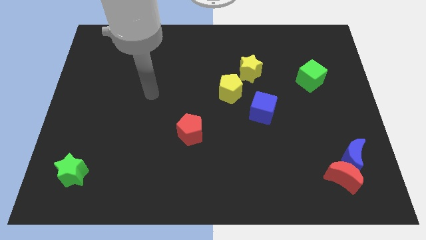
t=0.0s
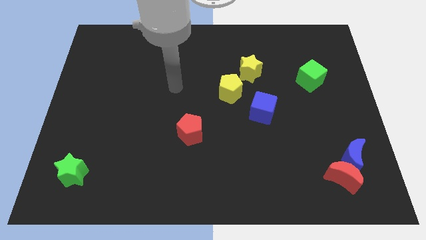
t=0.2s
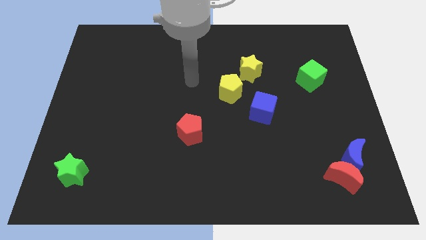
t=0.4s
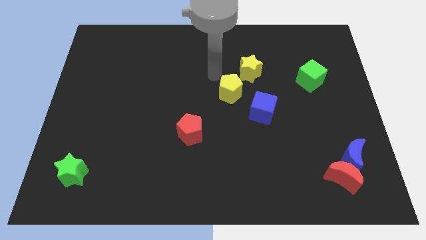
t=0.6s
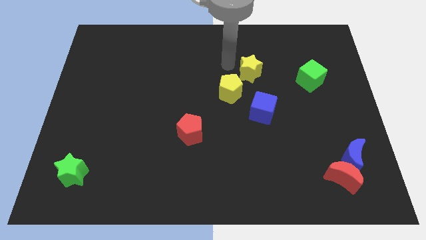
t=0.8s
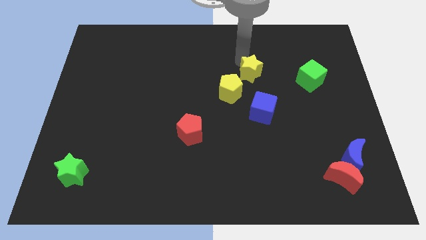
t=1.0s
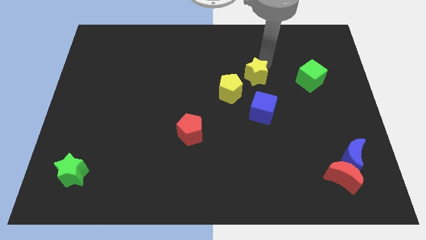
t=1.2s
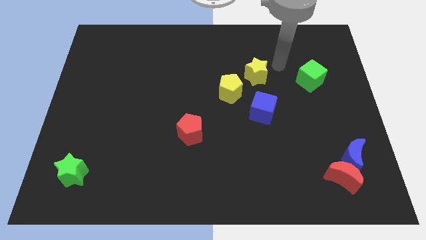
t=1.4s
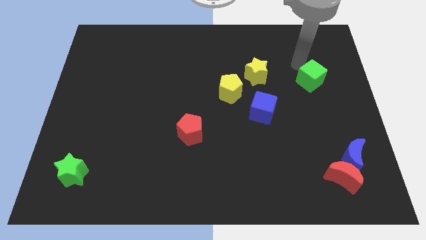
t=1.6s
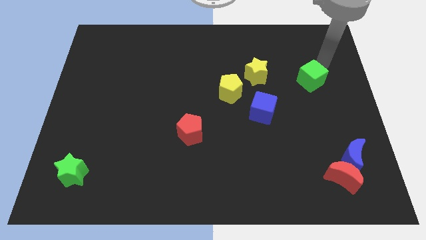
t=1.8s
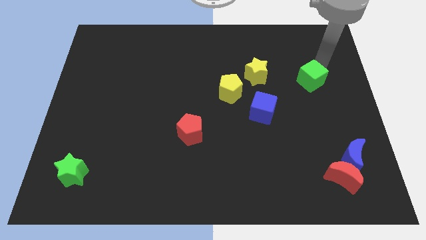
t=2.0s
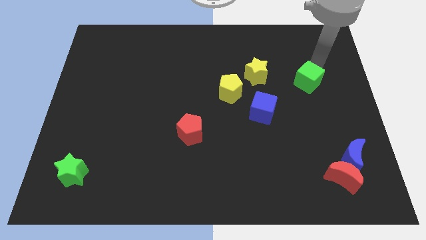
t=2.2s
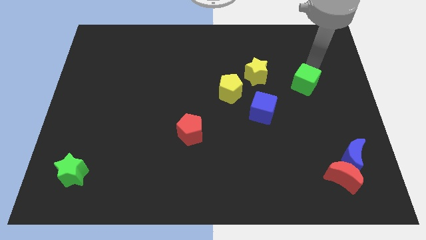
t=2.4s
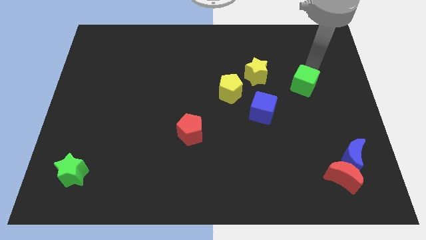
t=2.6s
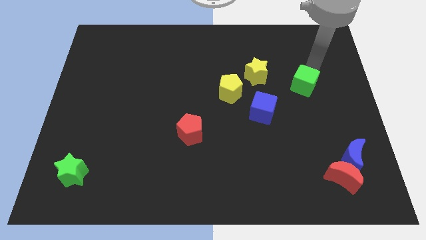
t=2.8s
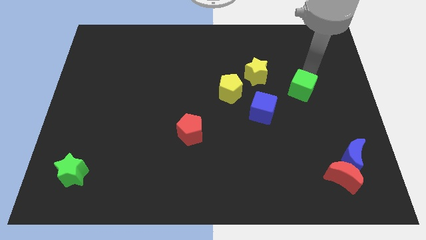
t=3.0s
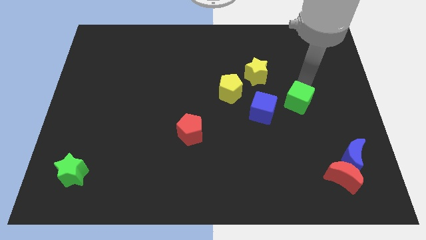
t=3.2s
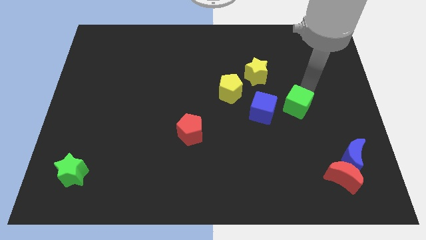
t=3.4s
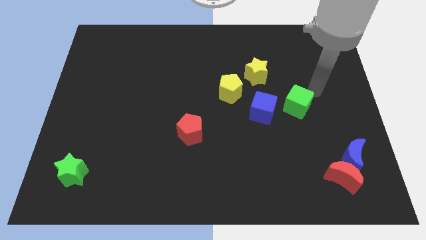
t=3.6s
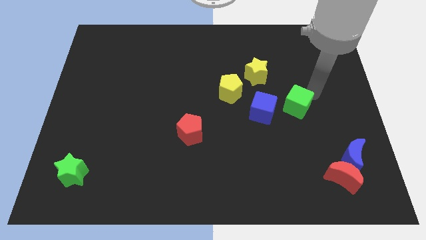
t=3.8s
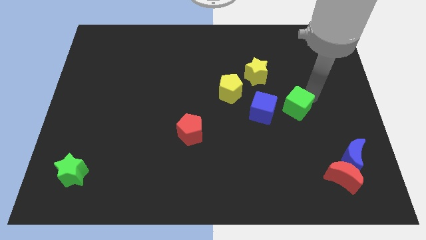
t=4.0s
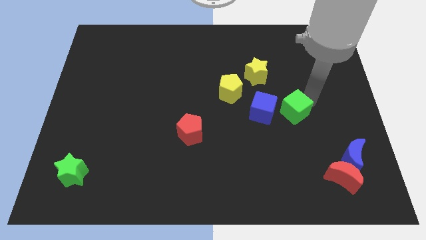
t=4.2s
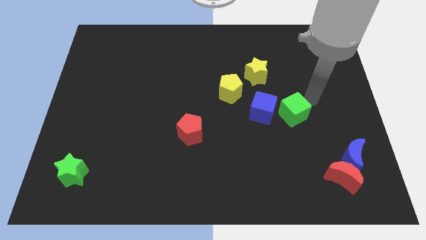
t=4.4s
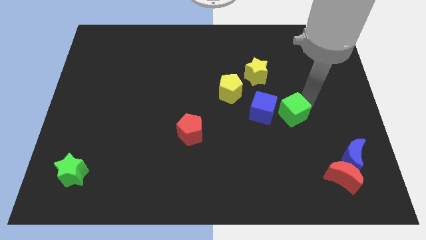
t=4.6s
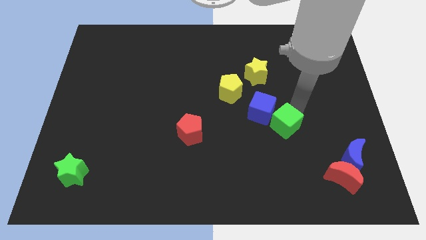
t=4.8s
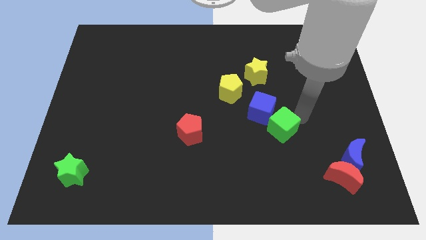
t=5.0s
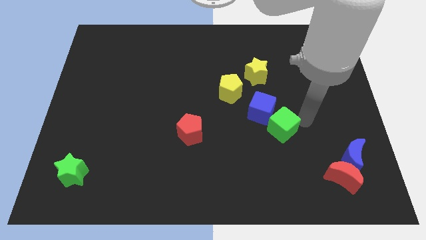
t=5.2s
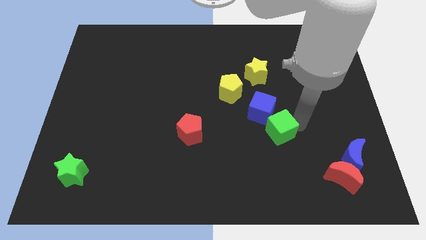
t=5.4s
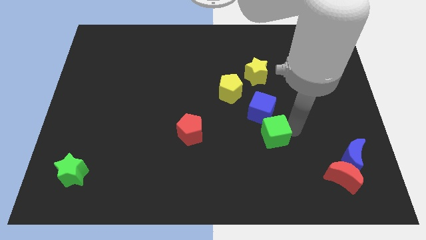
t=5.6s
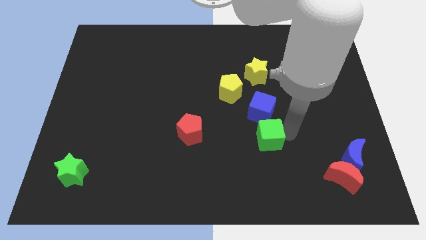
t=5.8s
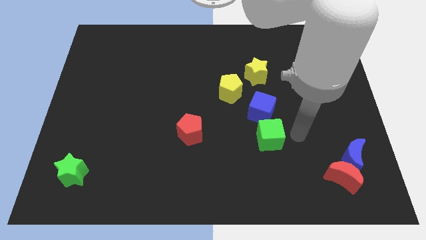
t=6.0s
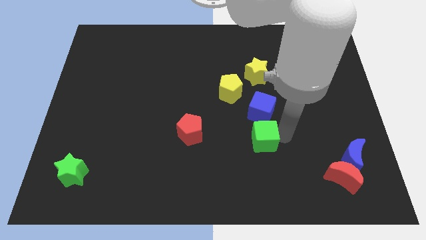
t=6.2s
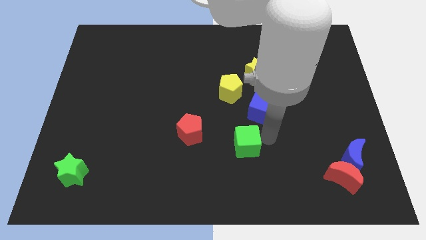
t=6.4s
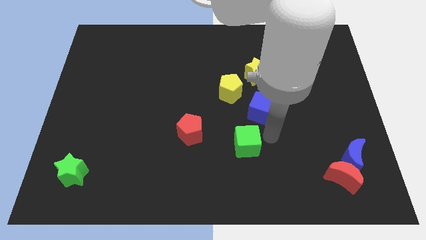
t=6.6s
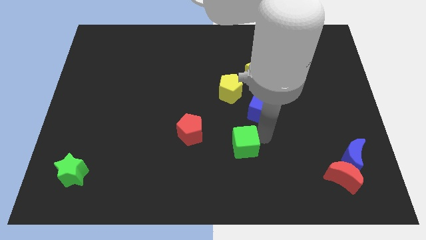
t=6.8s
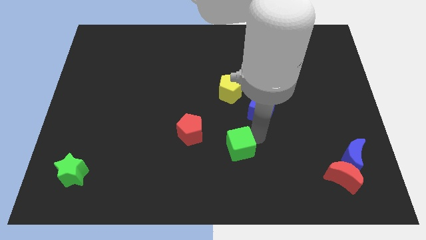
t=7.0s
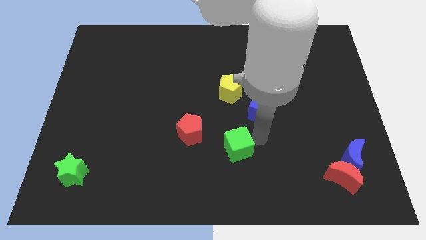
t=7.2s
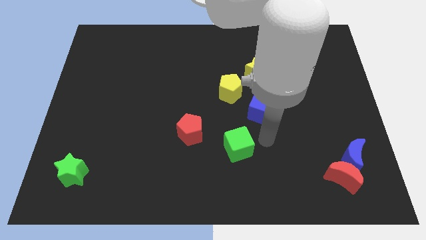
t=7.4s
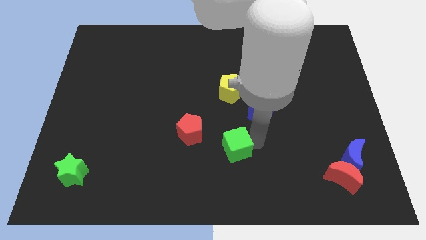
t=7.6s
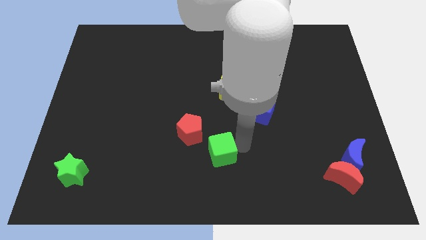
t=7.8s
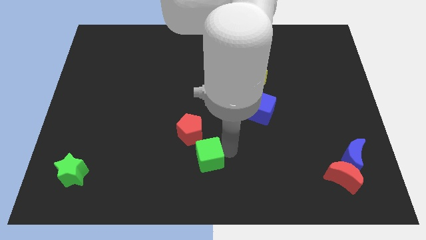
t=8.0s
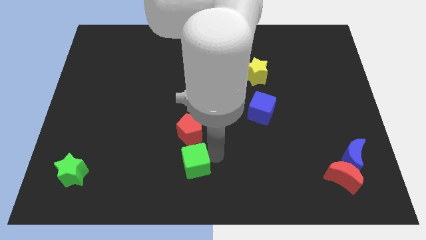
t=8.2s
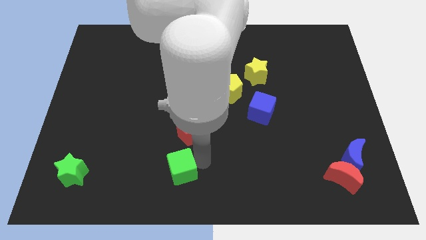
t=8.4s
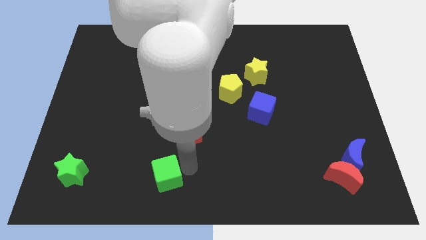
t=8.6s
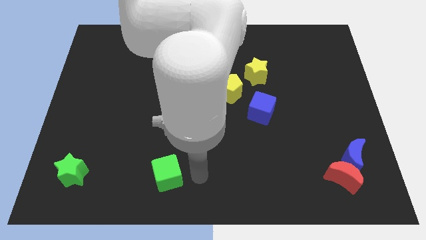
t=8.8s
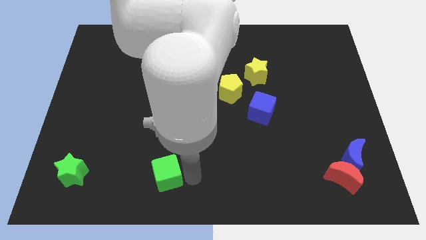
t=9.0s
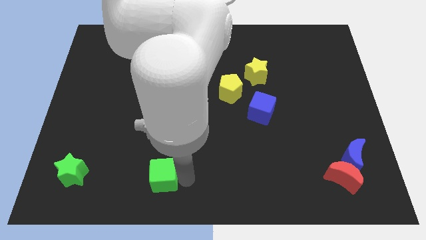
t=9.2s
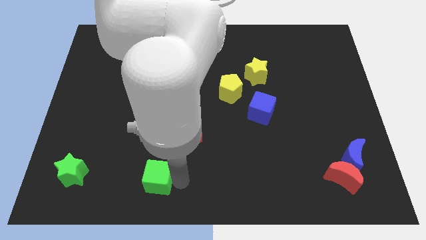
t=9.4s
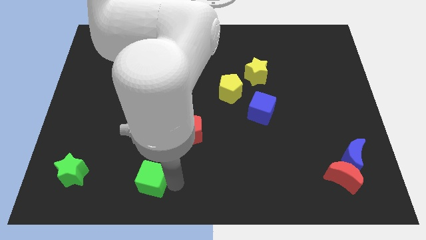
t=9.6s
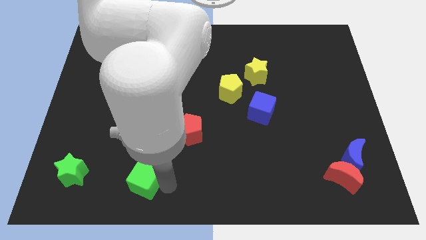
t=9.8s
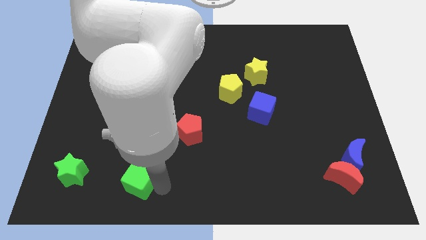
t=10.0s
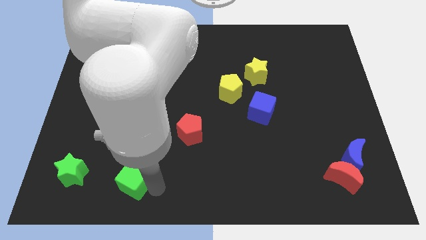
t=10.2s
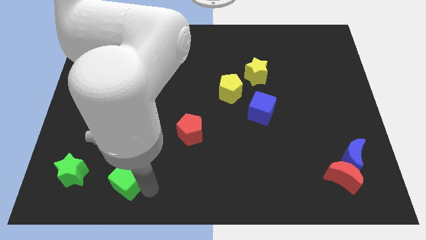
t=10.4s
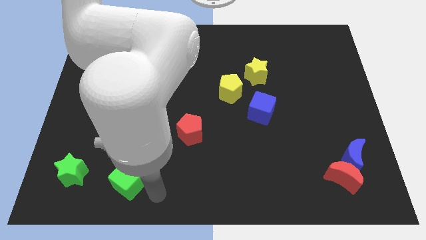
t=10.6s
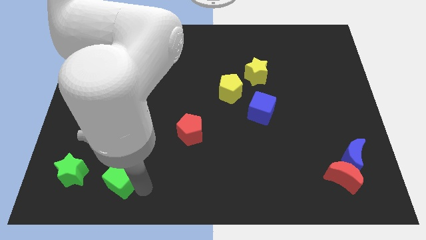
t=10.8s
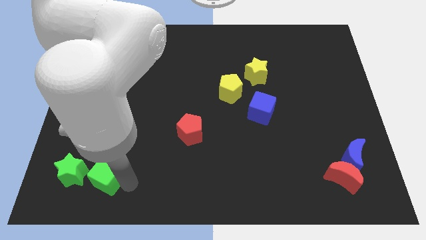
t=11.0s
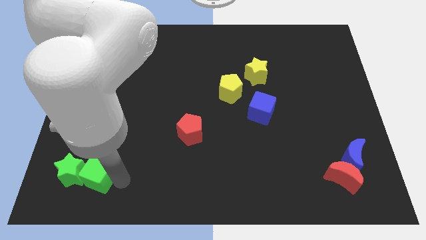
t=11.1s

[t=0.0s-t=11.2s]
push the green cube close to the green star

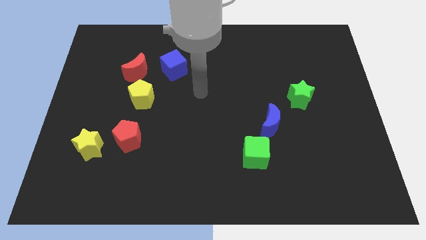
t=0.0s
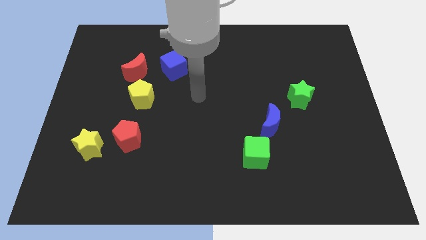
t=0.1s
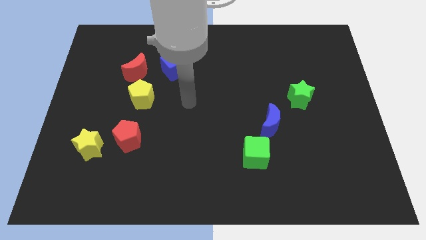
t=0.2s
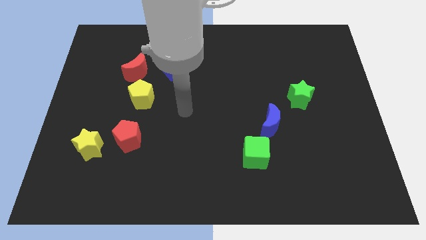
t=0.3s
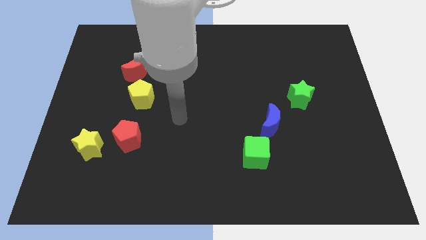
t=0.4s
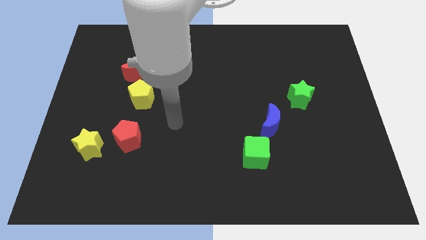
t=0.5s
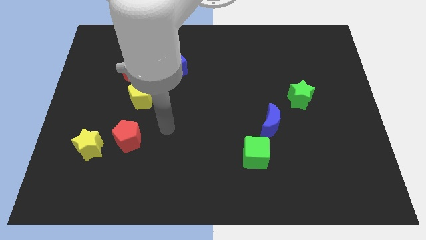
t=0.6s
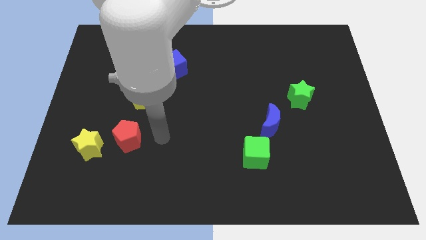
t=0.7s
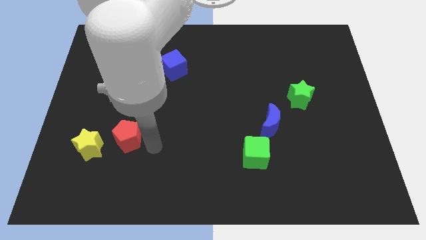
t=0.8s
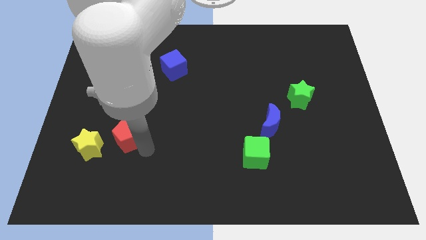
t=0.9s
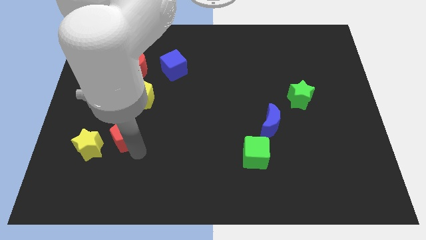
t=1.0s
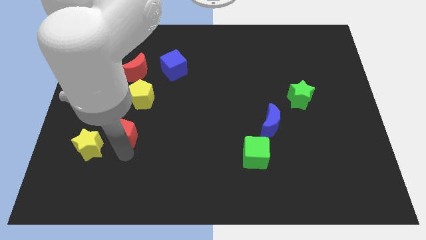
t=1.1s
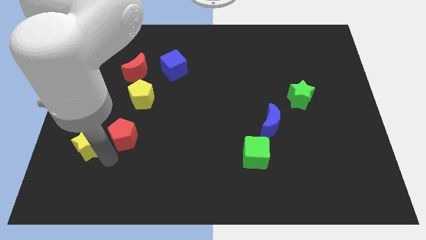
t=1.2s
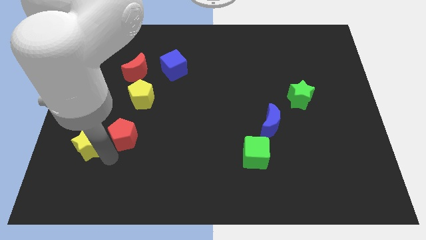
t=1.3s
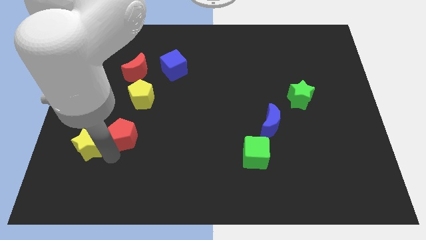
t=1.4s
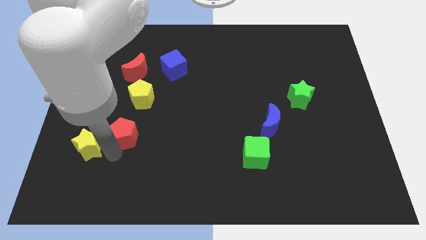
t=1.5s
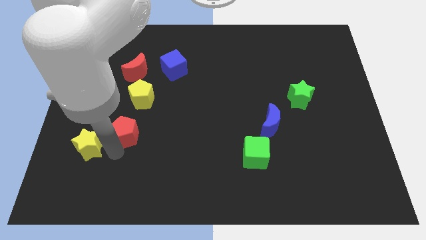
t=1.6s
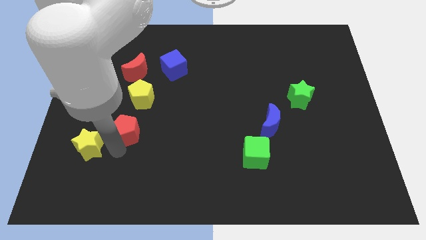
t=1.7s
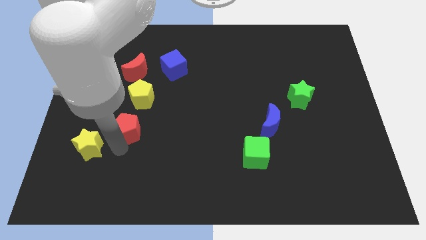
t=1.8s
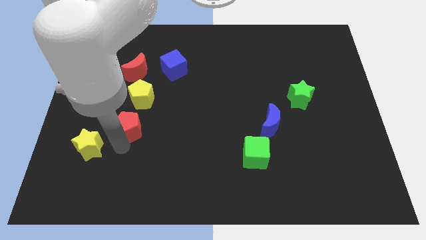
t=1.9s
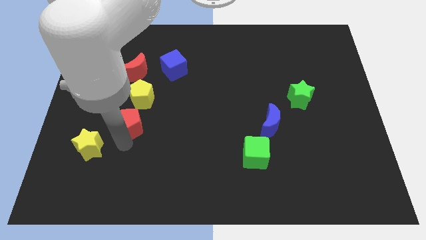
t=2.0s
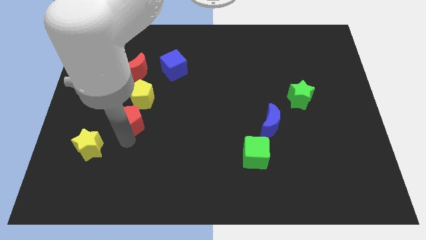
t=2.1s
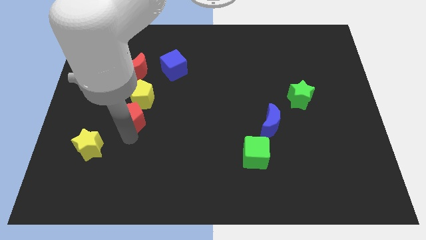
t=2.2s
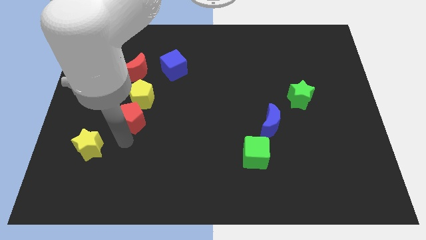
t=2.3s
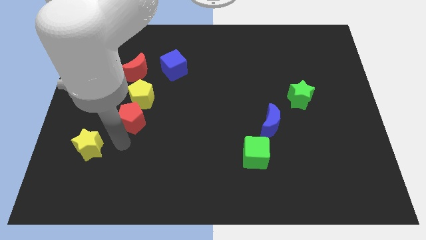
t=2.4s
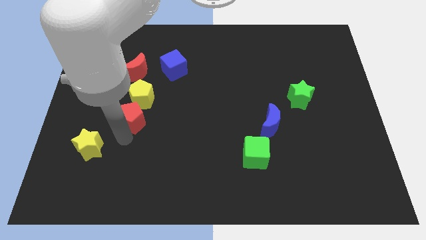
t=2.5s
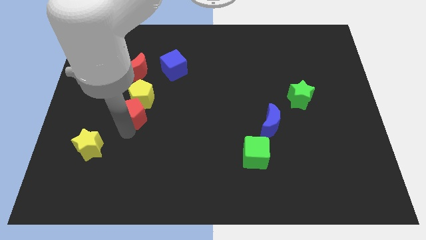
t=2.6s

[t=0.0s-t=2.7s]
put the red pentagon to the yellow pentagon
